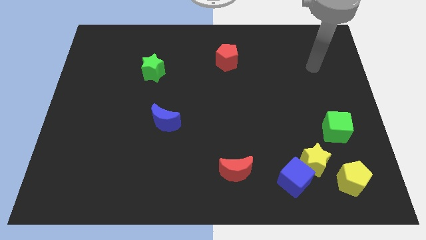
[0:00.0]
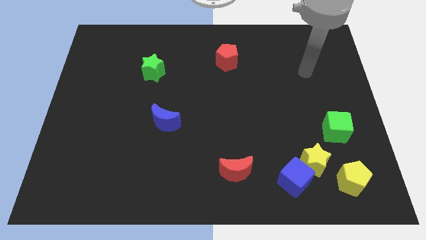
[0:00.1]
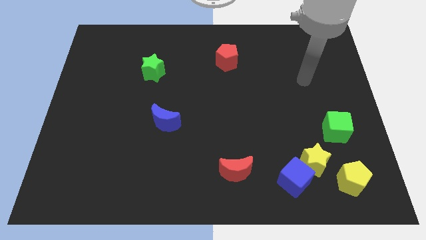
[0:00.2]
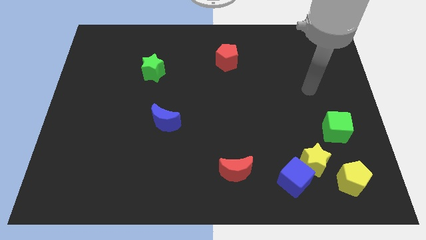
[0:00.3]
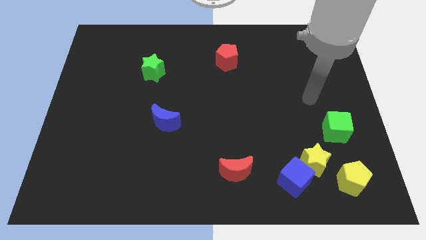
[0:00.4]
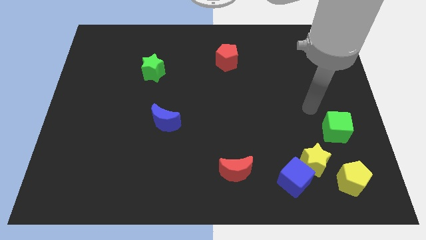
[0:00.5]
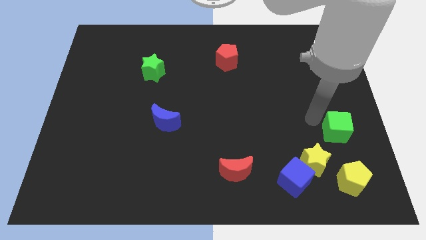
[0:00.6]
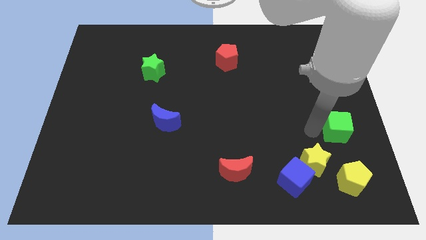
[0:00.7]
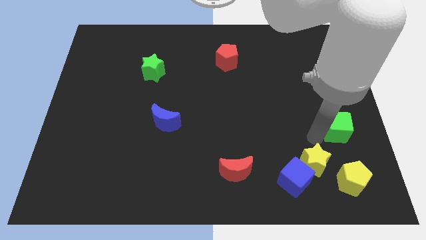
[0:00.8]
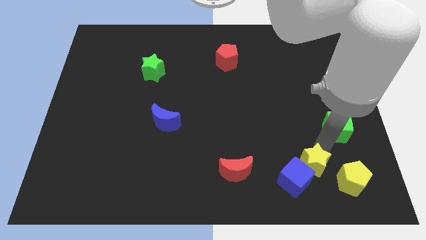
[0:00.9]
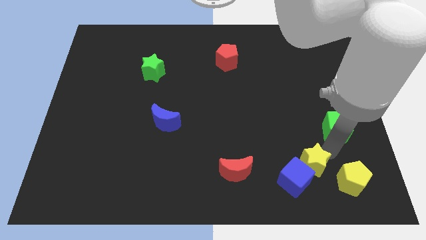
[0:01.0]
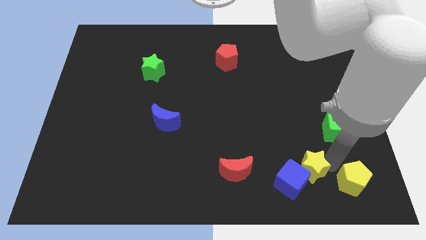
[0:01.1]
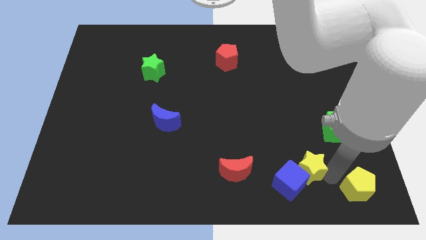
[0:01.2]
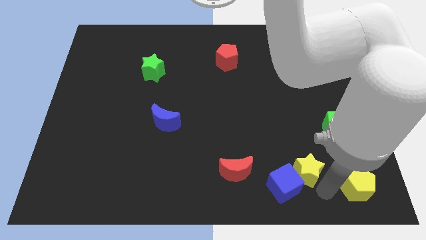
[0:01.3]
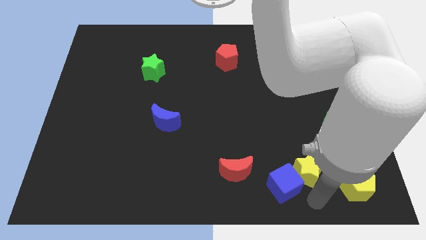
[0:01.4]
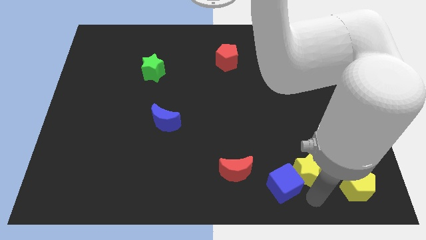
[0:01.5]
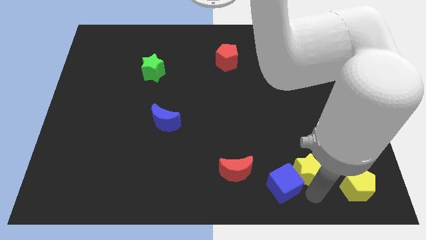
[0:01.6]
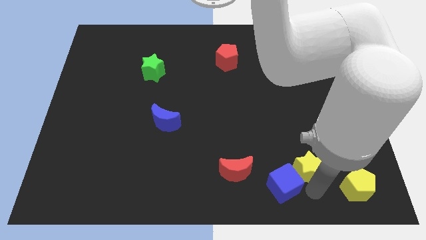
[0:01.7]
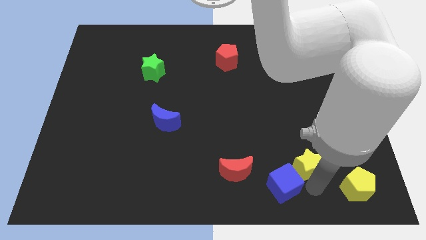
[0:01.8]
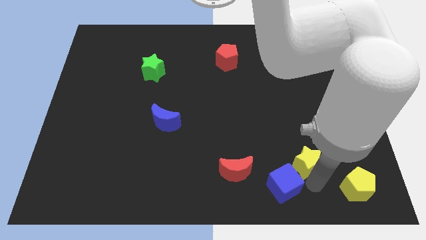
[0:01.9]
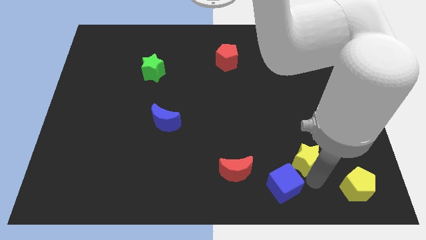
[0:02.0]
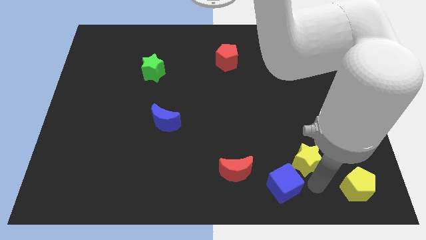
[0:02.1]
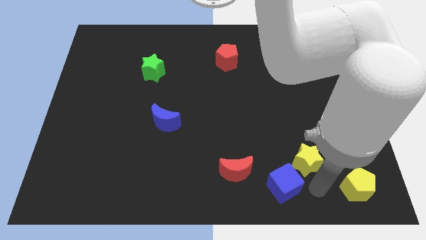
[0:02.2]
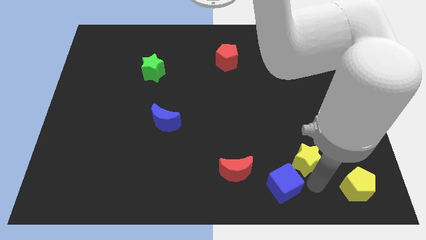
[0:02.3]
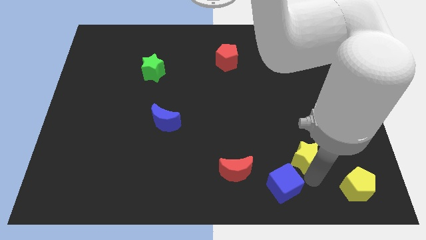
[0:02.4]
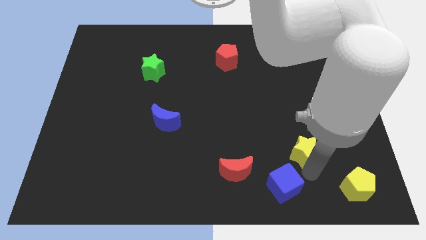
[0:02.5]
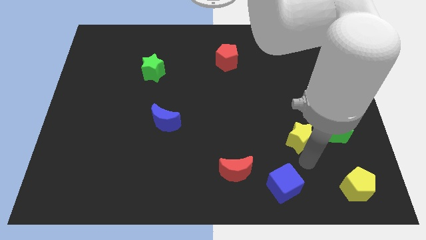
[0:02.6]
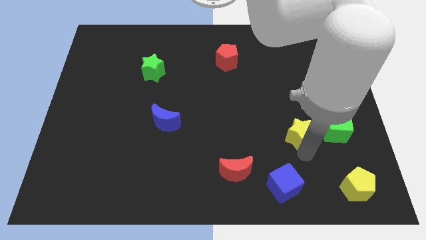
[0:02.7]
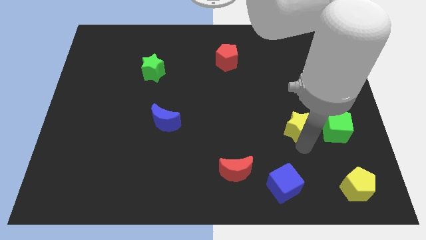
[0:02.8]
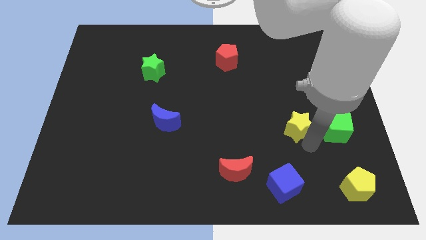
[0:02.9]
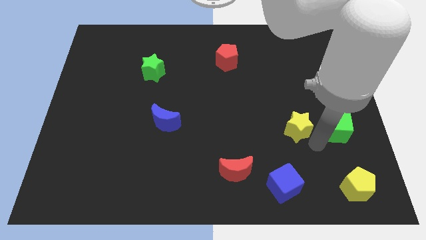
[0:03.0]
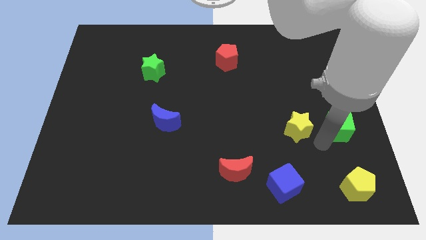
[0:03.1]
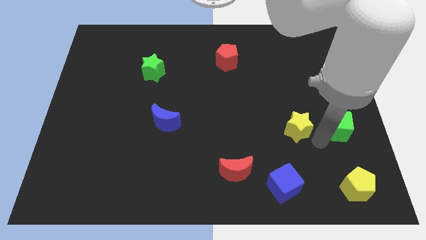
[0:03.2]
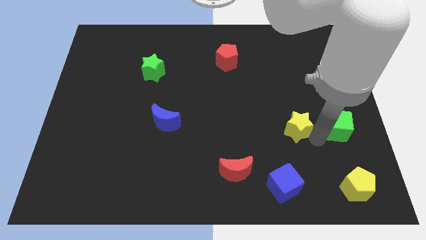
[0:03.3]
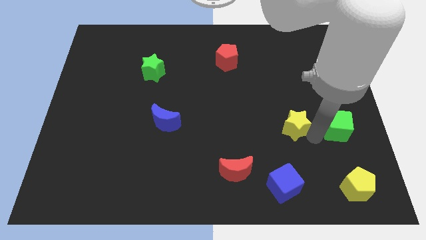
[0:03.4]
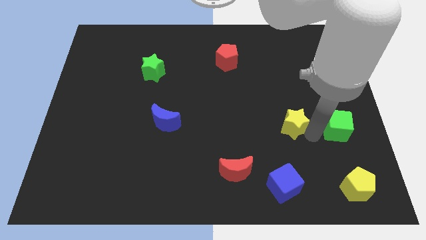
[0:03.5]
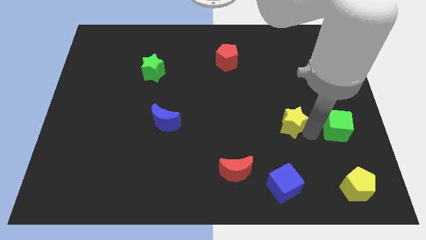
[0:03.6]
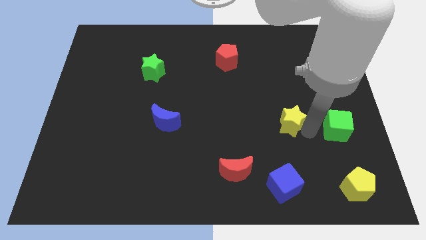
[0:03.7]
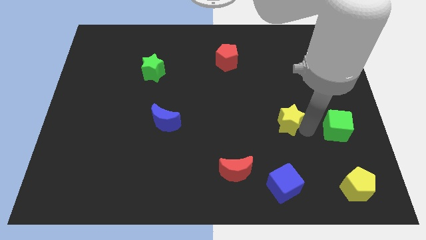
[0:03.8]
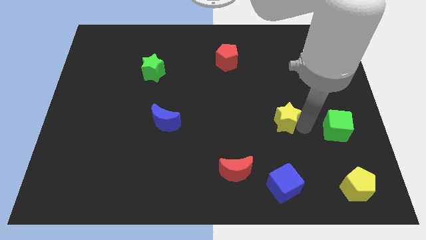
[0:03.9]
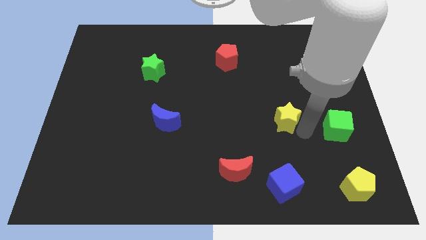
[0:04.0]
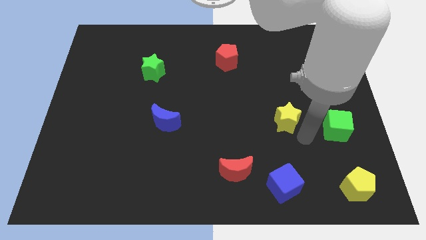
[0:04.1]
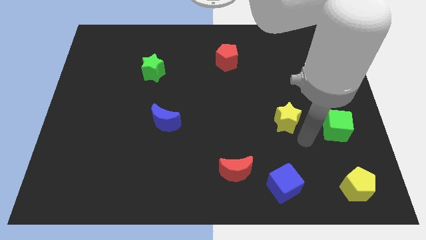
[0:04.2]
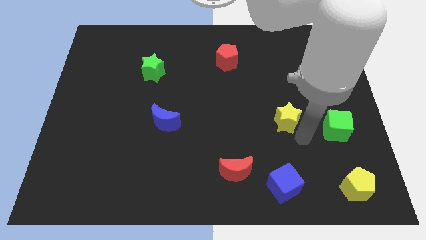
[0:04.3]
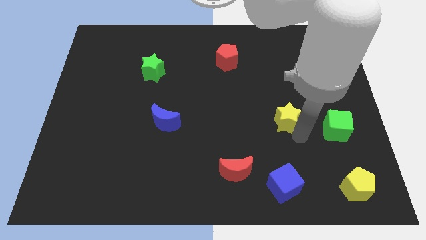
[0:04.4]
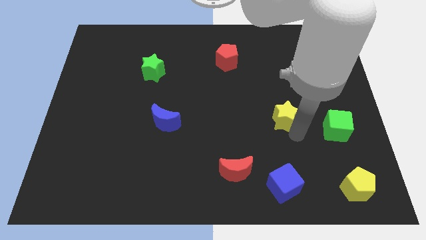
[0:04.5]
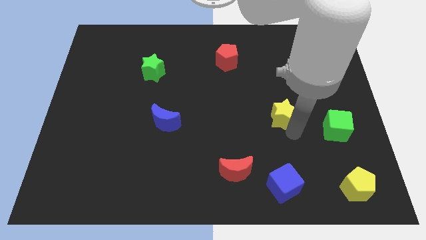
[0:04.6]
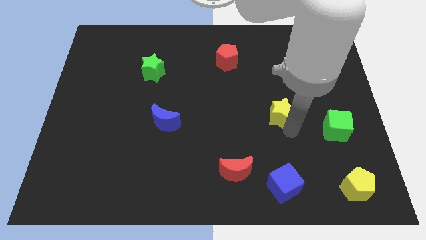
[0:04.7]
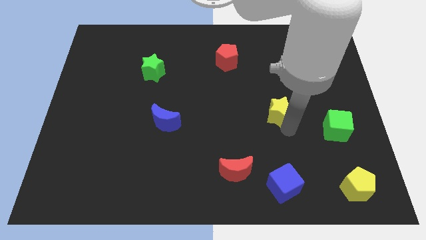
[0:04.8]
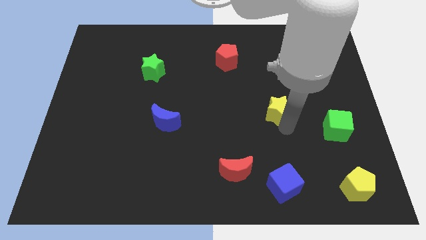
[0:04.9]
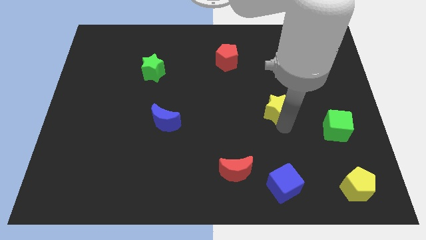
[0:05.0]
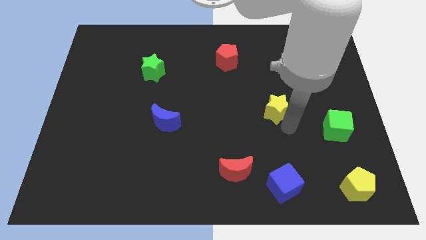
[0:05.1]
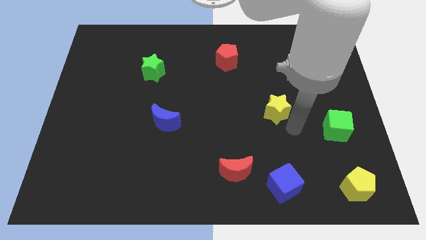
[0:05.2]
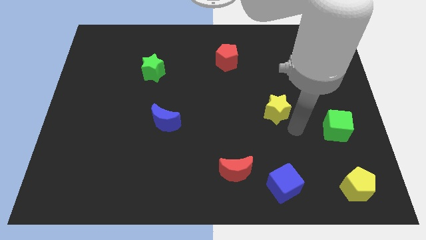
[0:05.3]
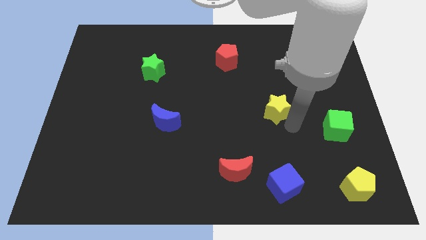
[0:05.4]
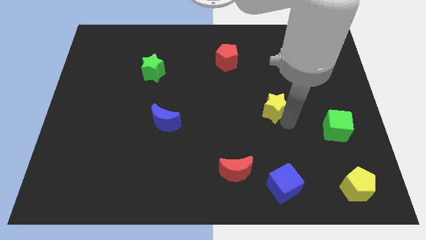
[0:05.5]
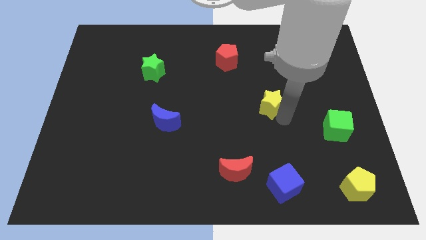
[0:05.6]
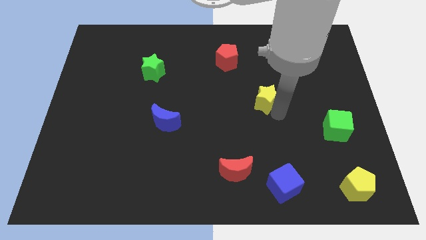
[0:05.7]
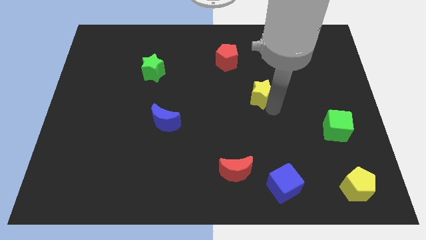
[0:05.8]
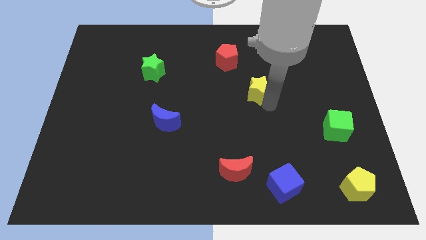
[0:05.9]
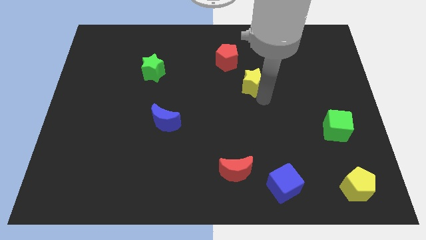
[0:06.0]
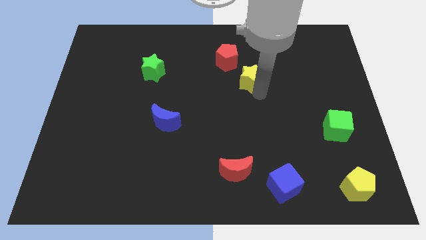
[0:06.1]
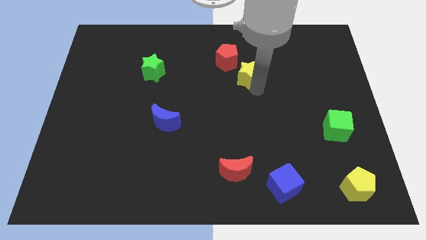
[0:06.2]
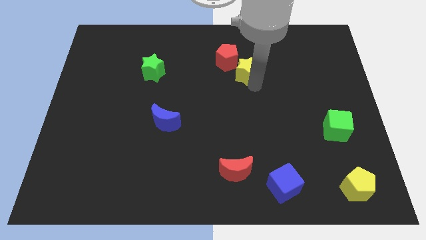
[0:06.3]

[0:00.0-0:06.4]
push the yellow star to the red pentagon
